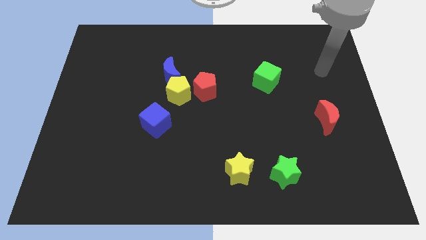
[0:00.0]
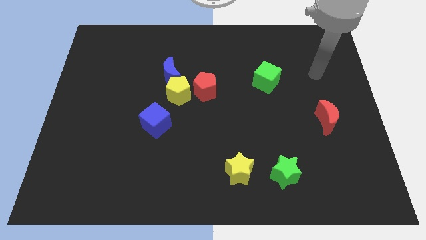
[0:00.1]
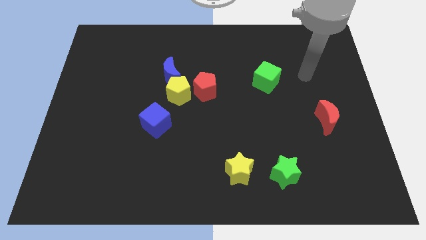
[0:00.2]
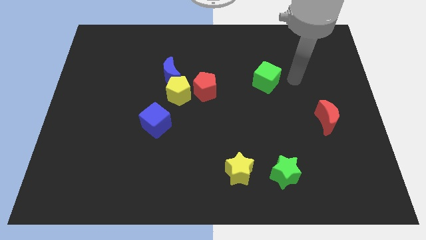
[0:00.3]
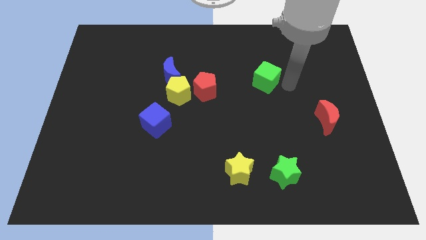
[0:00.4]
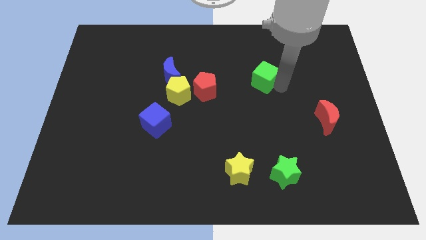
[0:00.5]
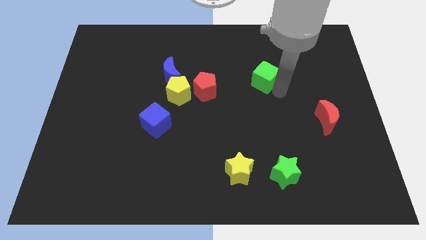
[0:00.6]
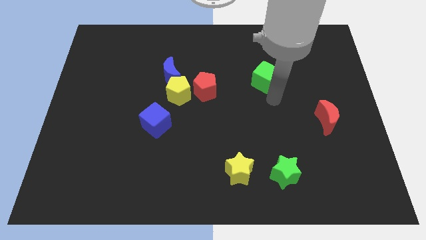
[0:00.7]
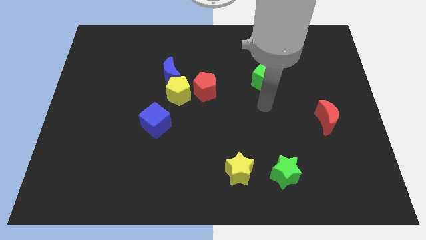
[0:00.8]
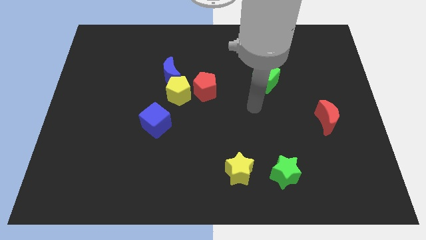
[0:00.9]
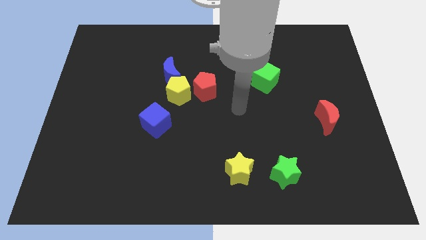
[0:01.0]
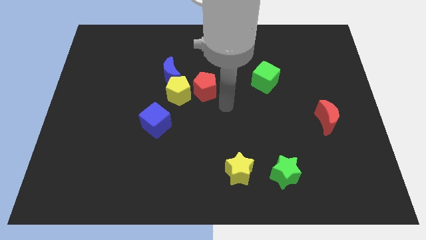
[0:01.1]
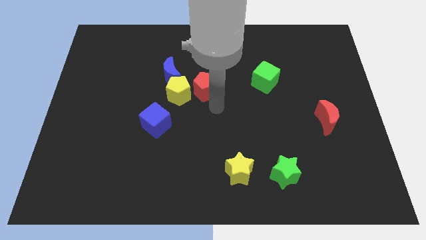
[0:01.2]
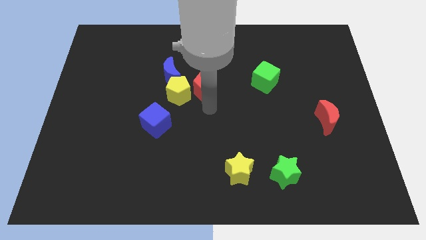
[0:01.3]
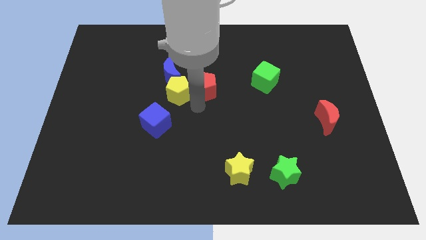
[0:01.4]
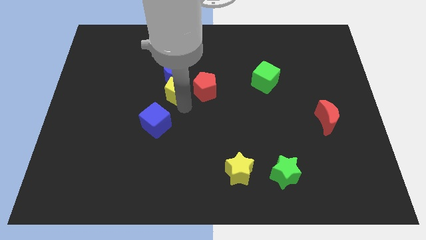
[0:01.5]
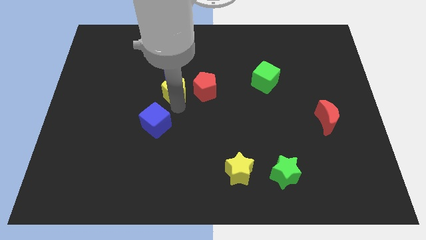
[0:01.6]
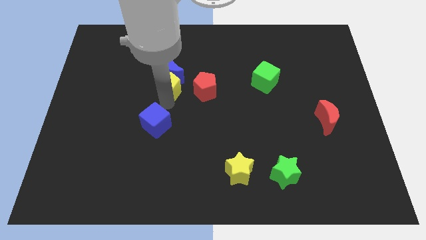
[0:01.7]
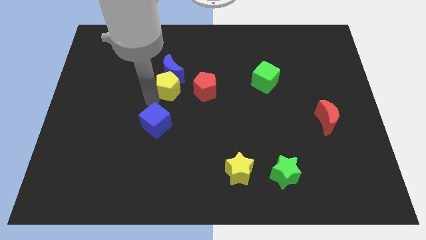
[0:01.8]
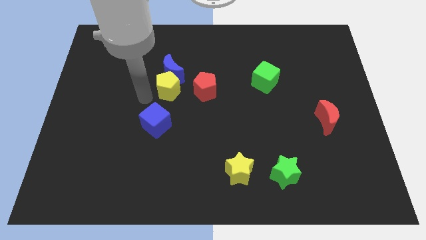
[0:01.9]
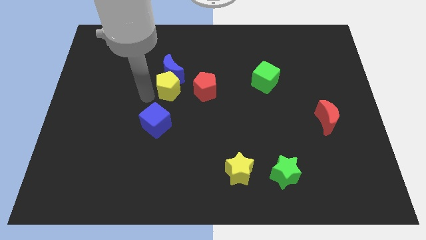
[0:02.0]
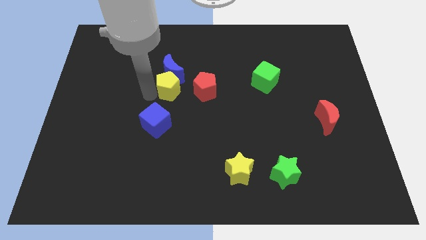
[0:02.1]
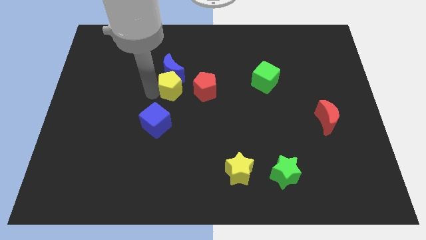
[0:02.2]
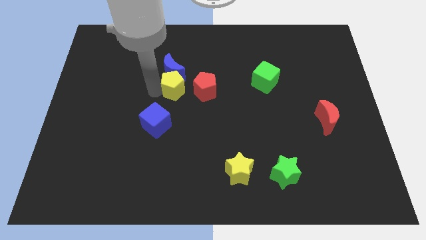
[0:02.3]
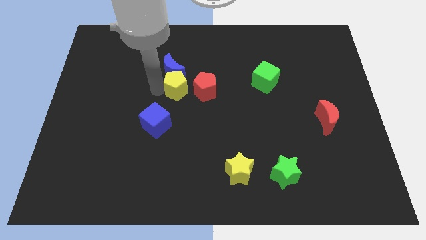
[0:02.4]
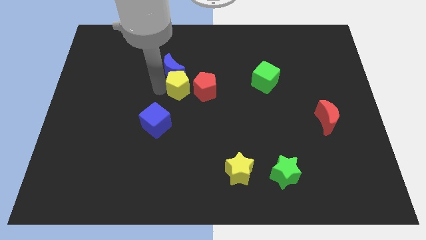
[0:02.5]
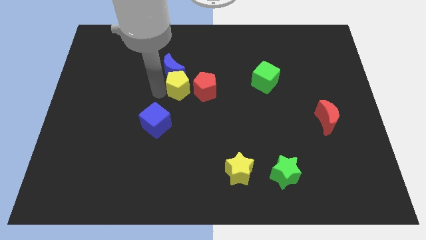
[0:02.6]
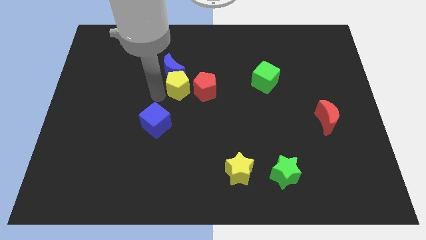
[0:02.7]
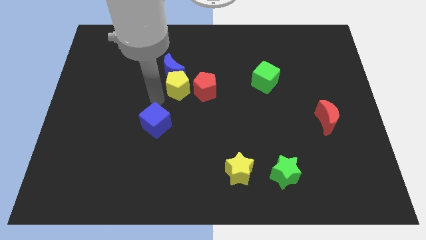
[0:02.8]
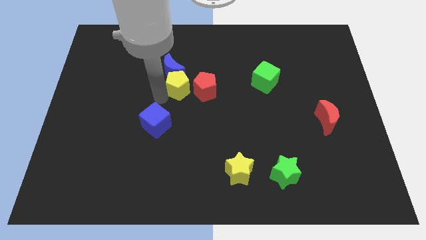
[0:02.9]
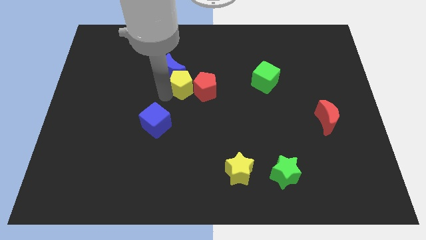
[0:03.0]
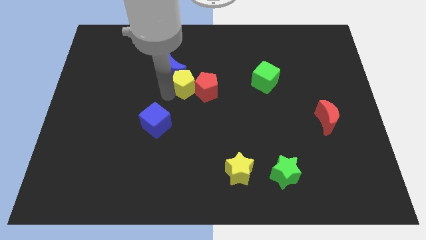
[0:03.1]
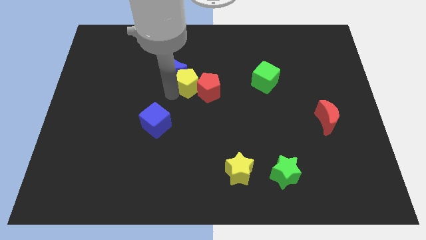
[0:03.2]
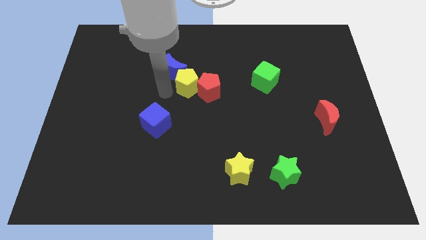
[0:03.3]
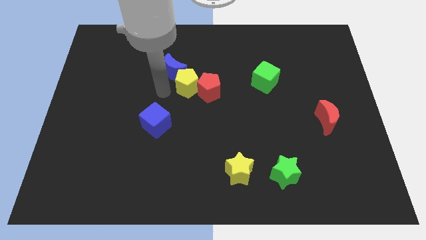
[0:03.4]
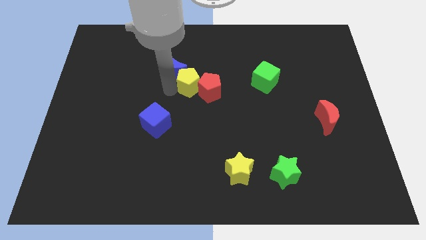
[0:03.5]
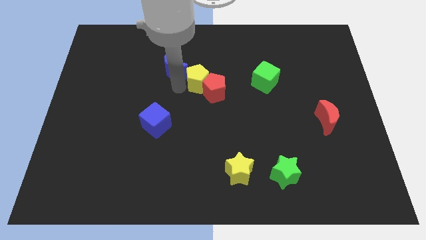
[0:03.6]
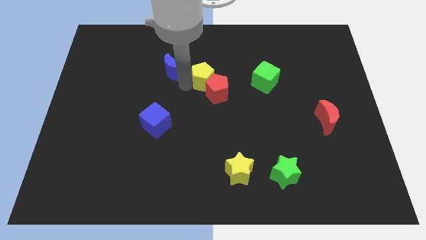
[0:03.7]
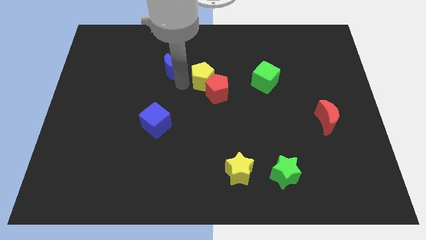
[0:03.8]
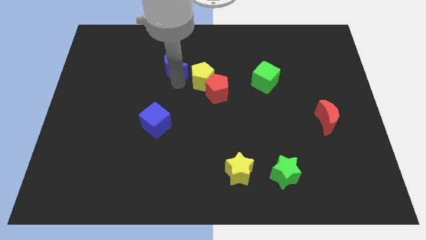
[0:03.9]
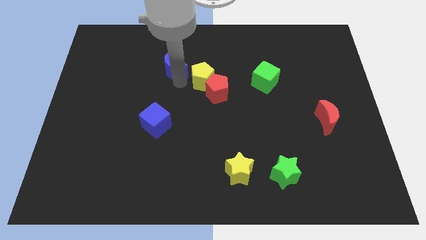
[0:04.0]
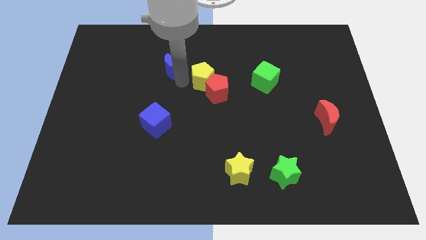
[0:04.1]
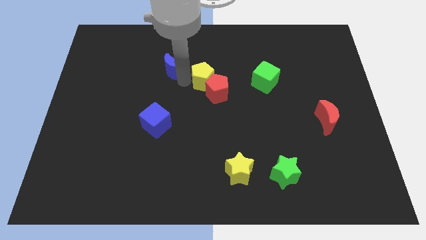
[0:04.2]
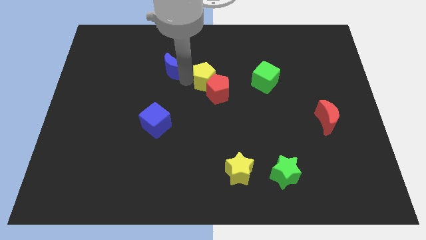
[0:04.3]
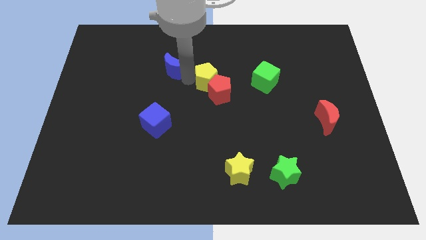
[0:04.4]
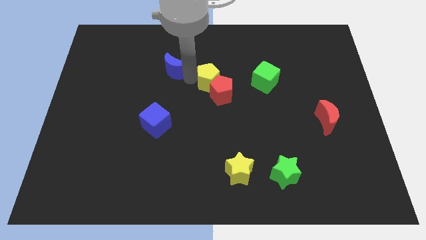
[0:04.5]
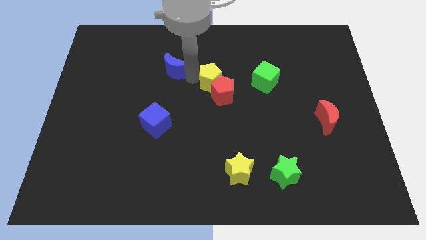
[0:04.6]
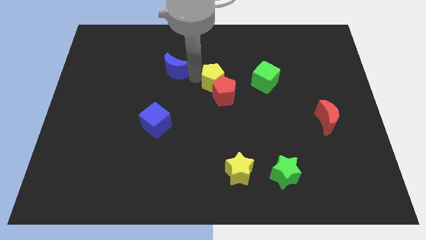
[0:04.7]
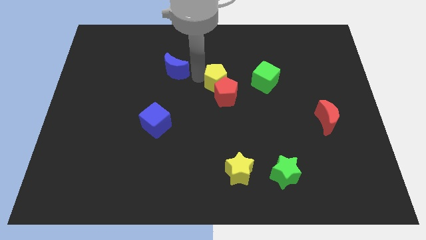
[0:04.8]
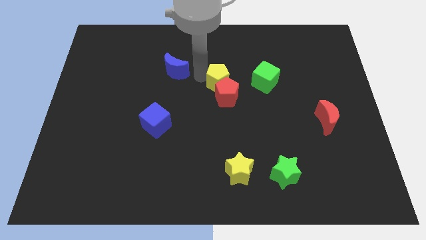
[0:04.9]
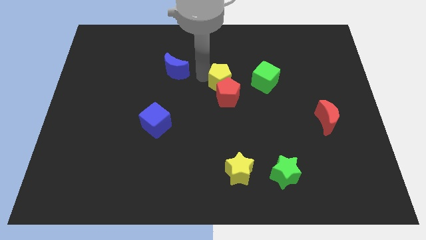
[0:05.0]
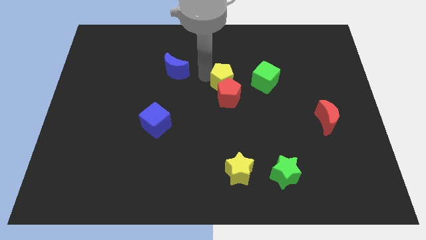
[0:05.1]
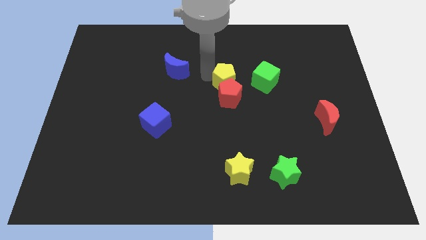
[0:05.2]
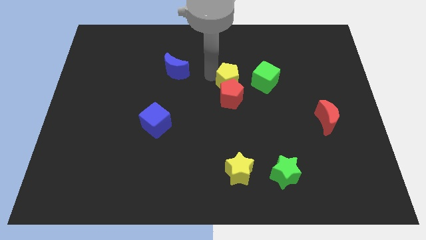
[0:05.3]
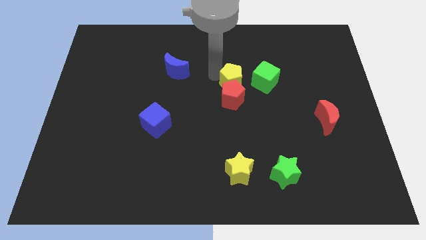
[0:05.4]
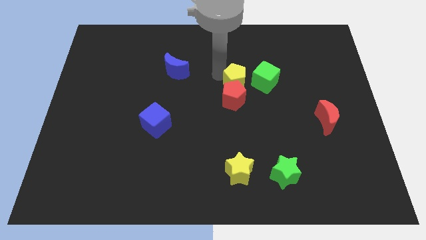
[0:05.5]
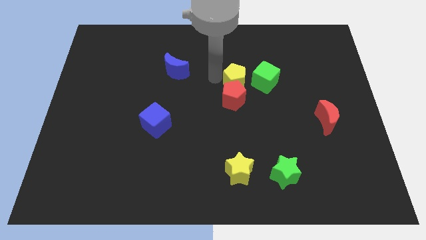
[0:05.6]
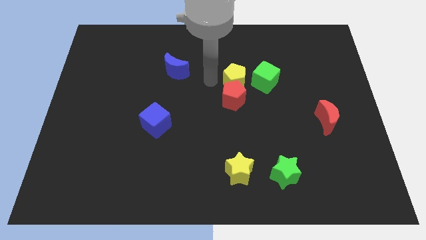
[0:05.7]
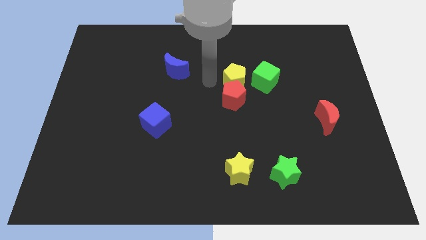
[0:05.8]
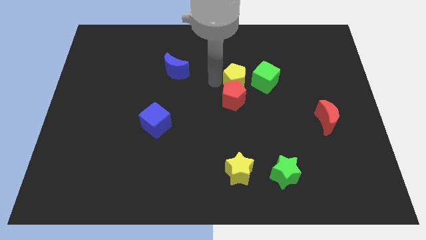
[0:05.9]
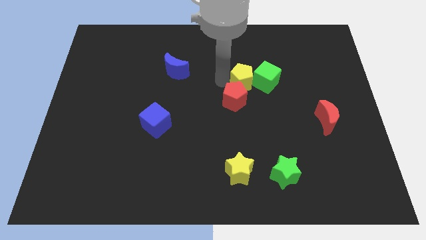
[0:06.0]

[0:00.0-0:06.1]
slide the yellow pentagon close to the green cube
